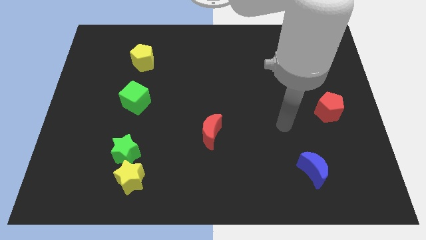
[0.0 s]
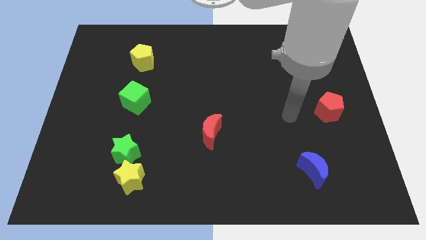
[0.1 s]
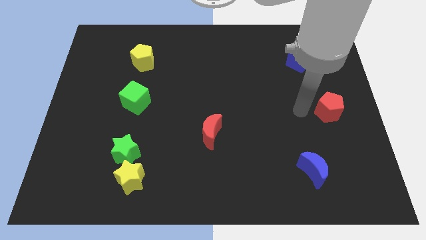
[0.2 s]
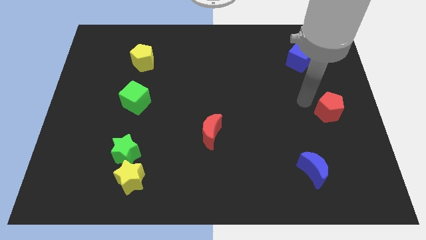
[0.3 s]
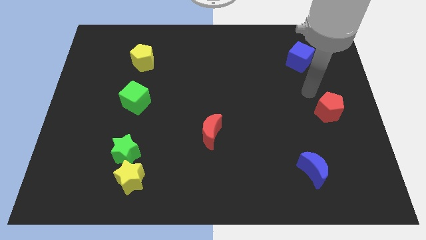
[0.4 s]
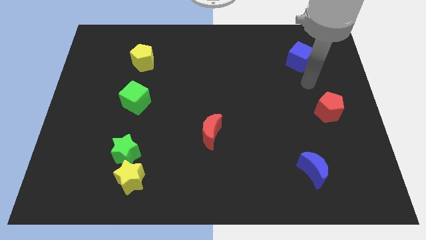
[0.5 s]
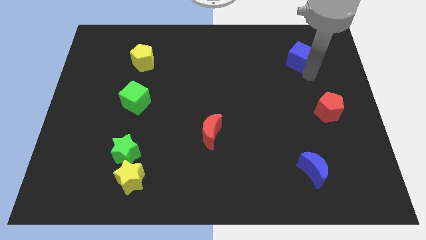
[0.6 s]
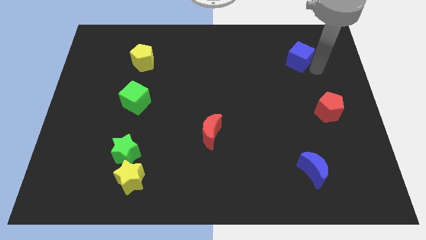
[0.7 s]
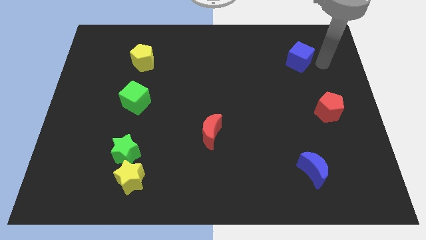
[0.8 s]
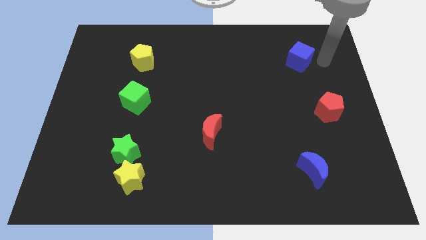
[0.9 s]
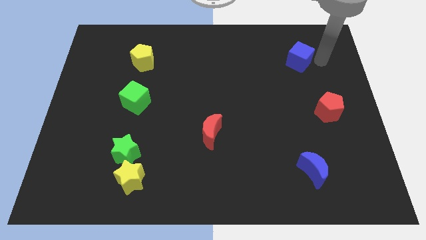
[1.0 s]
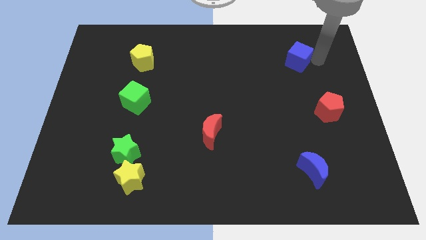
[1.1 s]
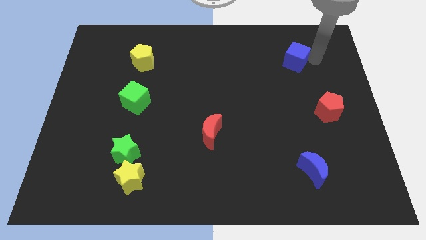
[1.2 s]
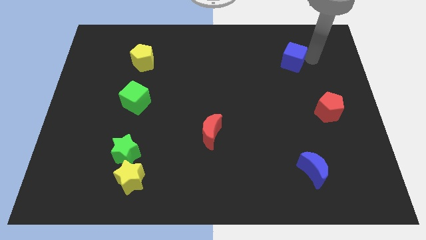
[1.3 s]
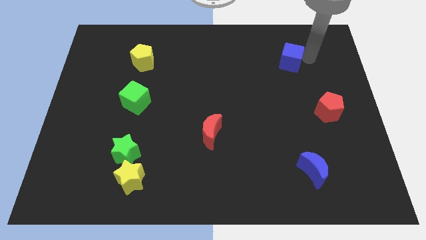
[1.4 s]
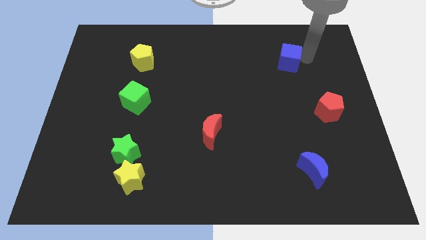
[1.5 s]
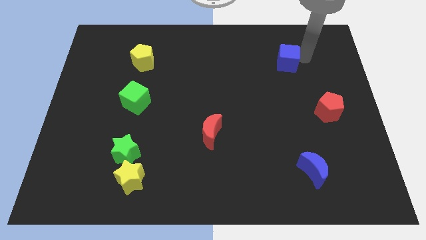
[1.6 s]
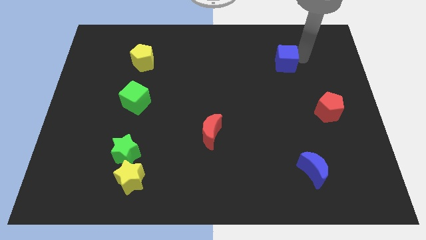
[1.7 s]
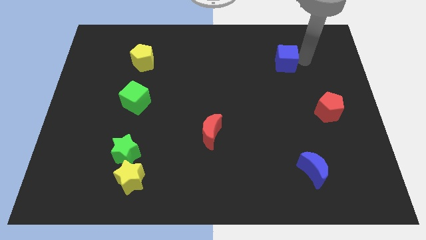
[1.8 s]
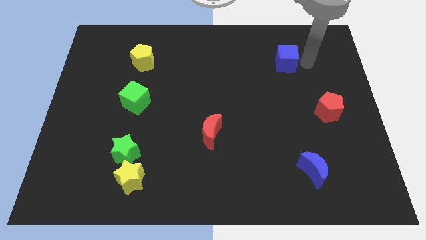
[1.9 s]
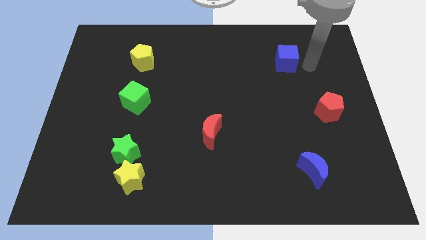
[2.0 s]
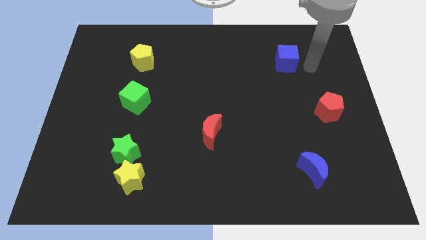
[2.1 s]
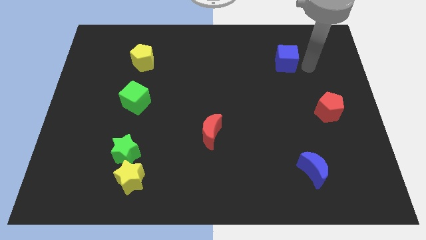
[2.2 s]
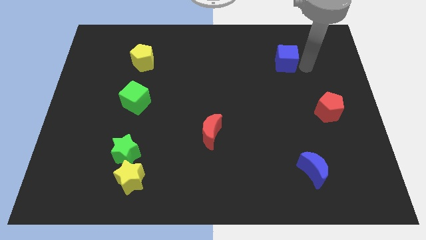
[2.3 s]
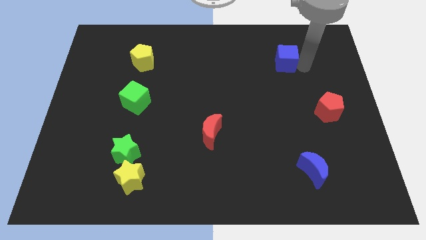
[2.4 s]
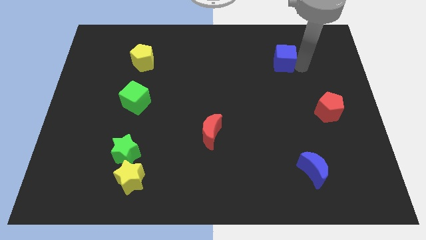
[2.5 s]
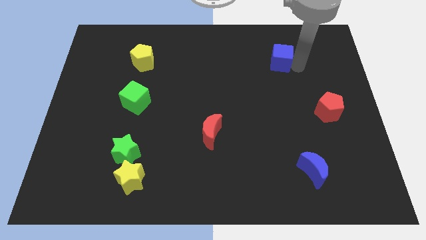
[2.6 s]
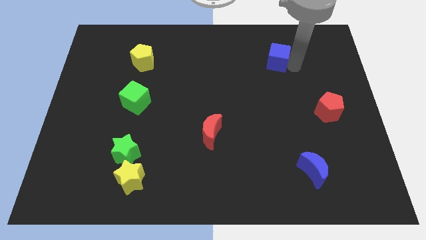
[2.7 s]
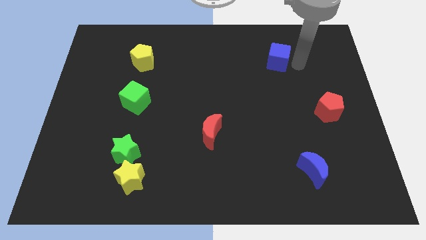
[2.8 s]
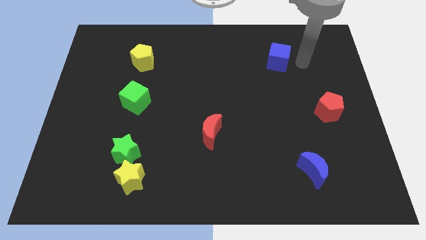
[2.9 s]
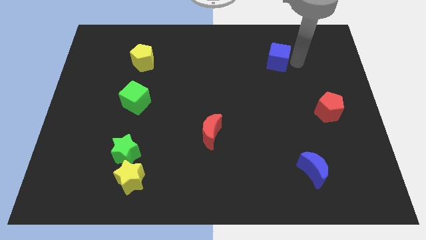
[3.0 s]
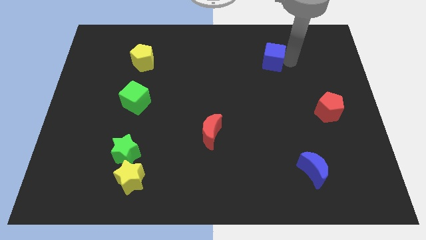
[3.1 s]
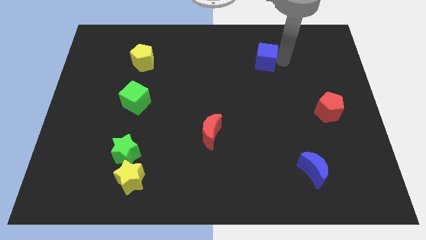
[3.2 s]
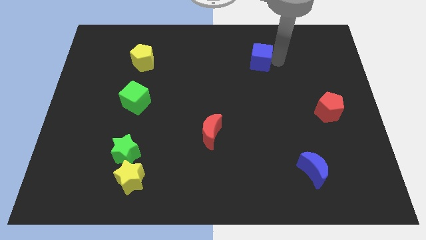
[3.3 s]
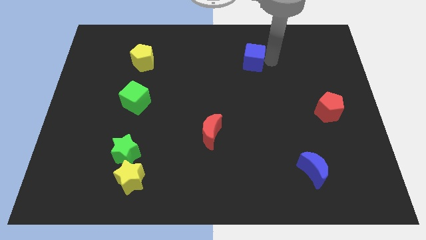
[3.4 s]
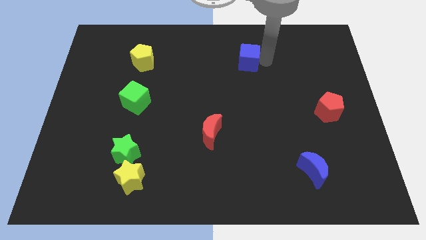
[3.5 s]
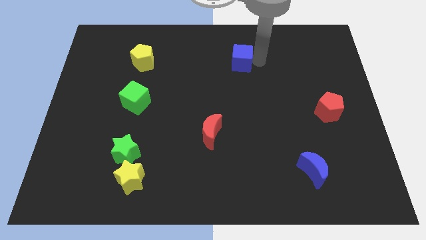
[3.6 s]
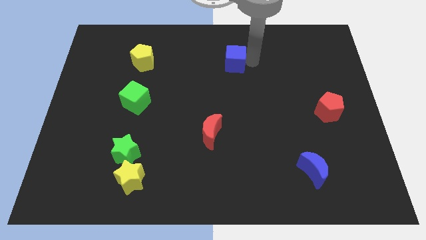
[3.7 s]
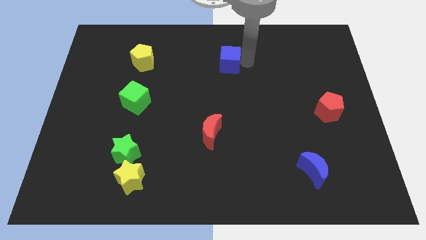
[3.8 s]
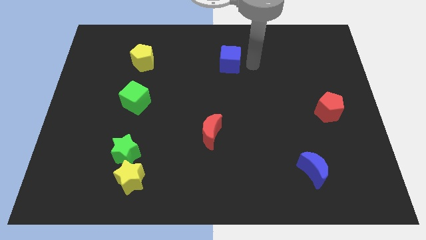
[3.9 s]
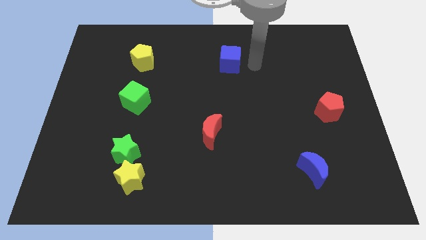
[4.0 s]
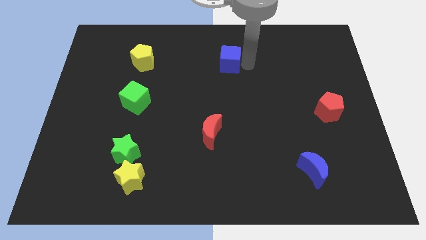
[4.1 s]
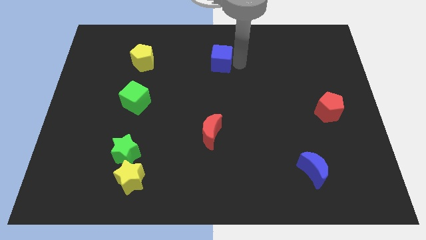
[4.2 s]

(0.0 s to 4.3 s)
slide the blue cube left

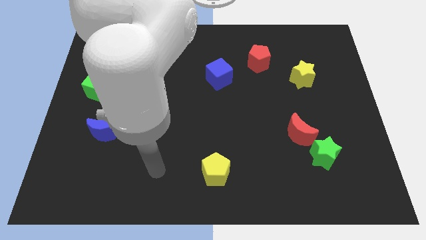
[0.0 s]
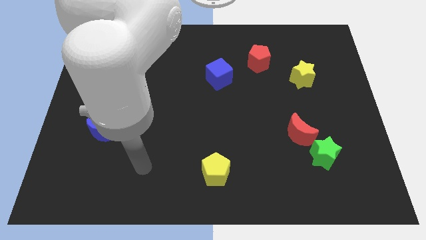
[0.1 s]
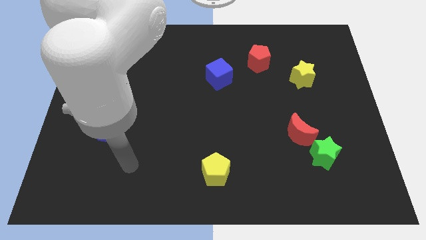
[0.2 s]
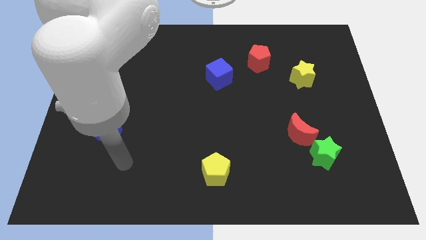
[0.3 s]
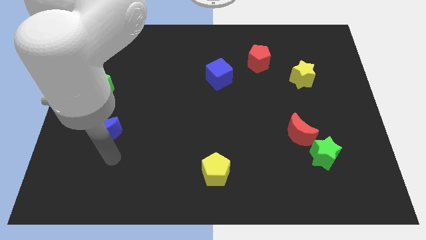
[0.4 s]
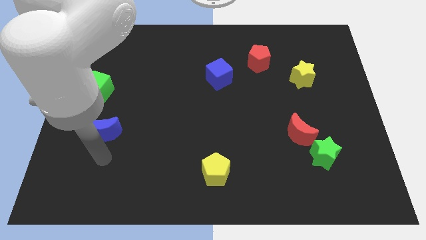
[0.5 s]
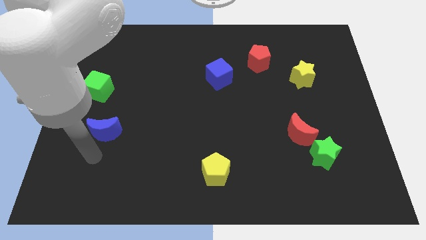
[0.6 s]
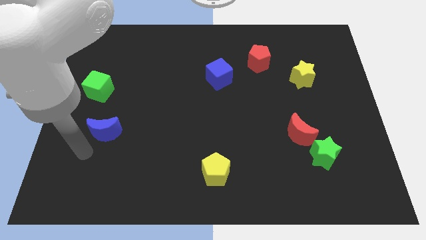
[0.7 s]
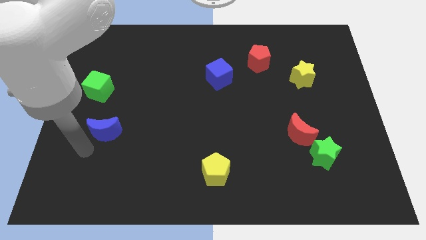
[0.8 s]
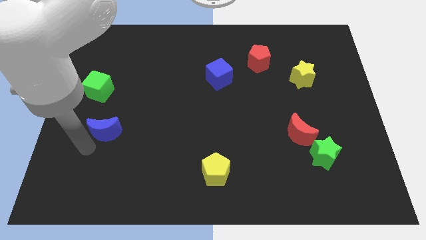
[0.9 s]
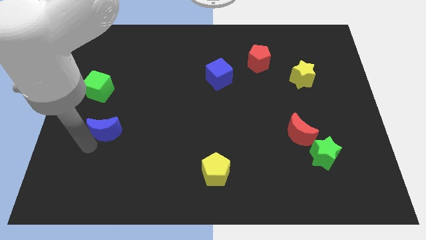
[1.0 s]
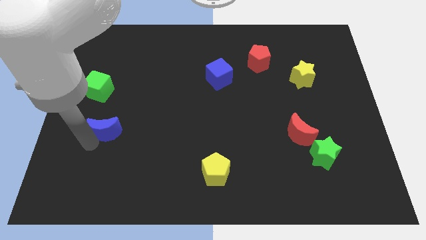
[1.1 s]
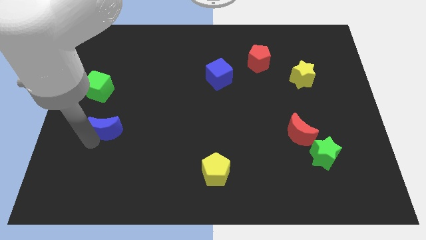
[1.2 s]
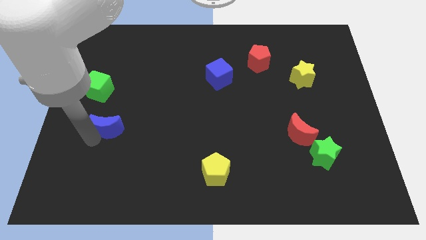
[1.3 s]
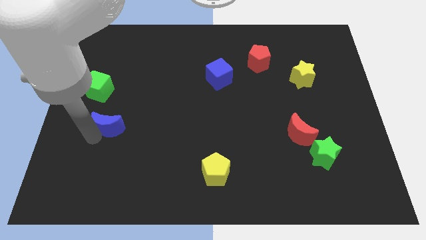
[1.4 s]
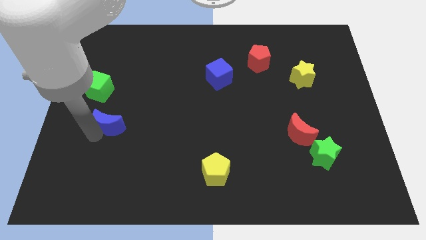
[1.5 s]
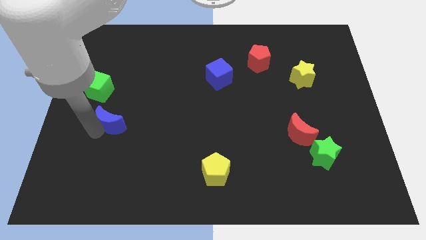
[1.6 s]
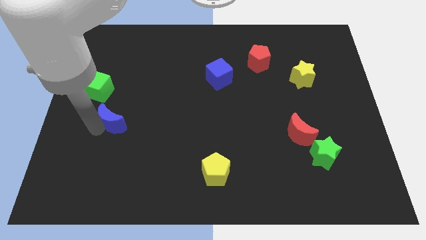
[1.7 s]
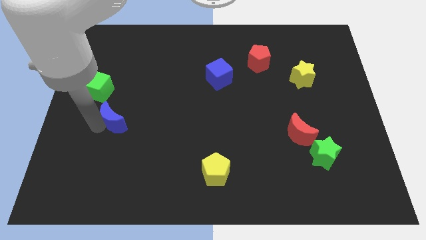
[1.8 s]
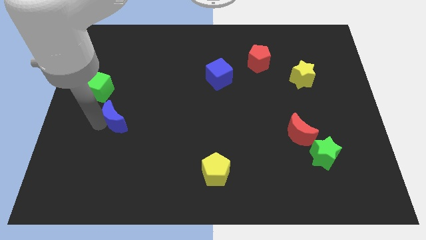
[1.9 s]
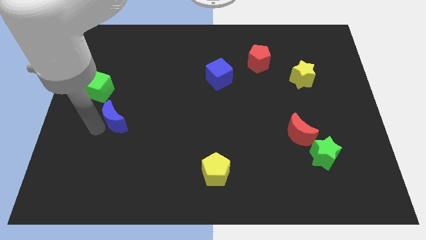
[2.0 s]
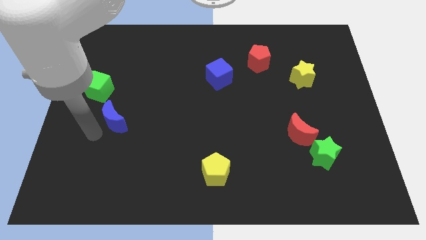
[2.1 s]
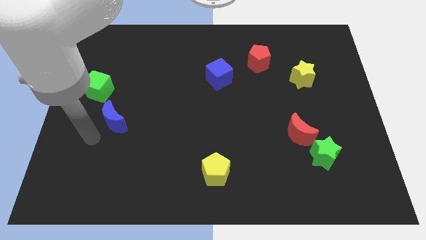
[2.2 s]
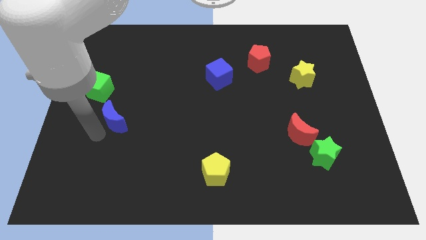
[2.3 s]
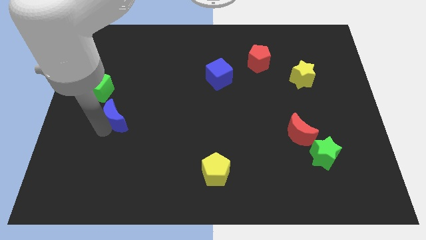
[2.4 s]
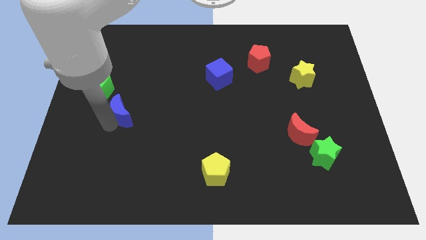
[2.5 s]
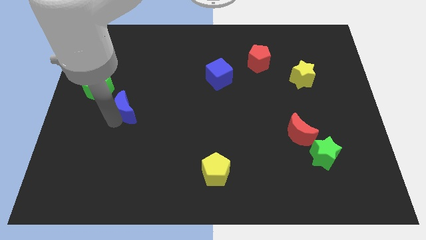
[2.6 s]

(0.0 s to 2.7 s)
push the blue moon upwards and to the right a bit

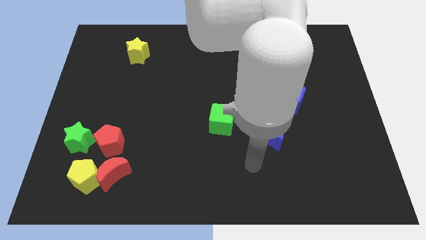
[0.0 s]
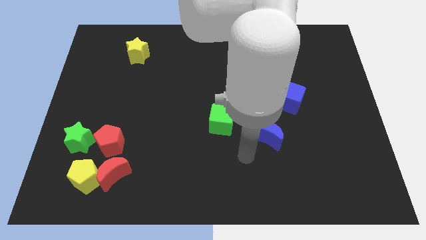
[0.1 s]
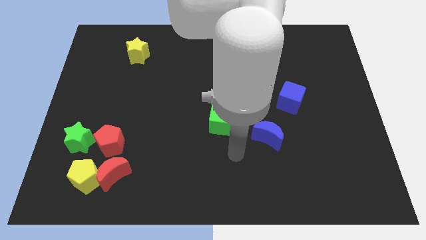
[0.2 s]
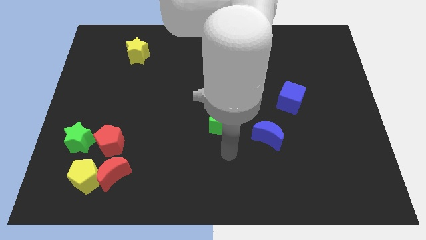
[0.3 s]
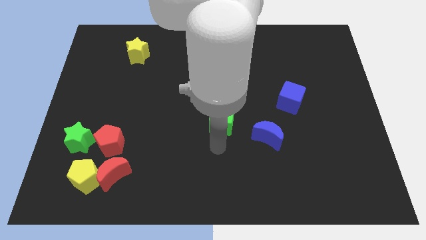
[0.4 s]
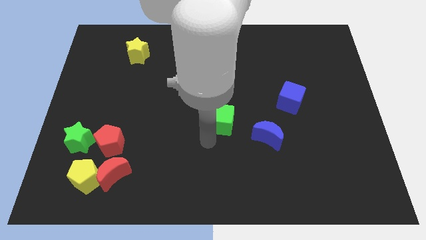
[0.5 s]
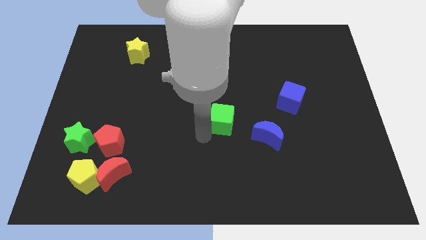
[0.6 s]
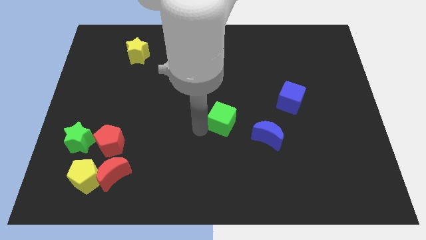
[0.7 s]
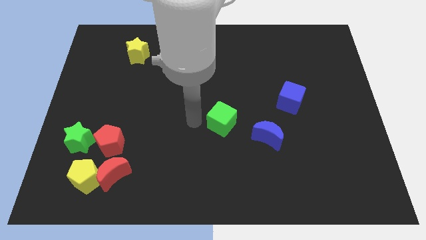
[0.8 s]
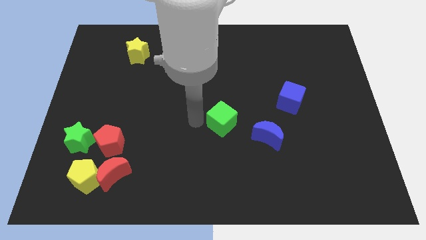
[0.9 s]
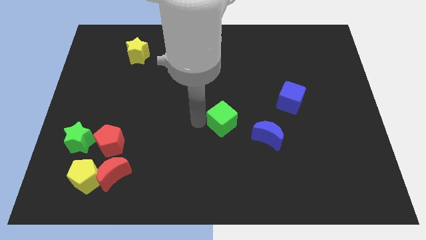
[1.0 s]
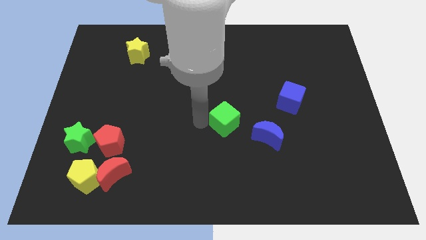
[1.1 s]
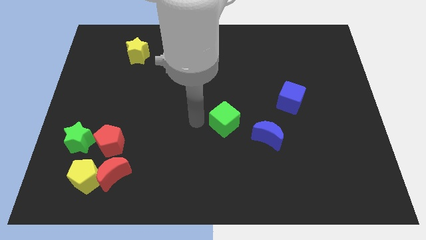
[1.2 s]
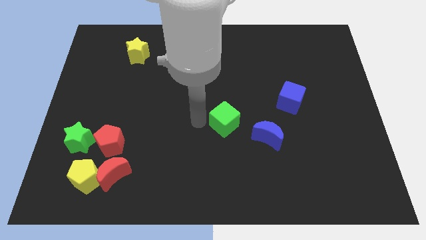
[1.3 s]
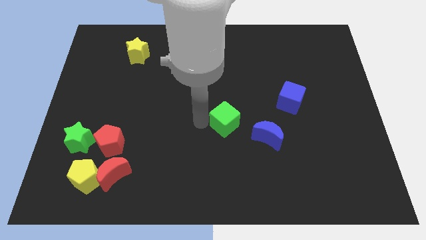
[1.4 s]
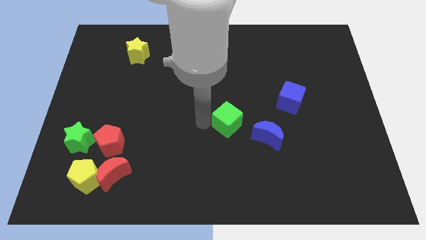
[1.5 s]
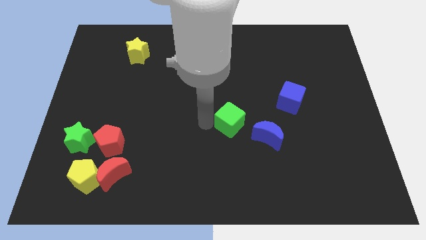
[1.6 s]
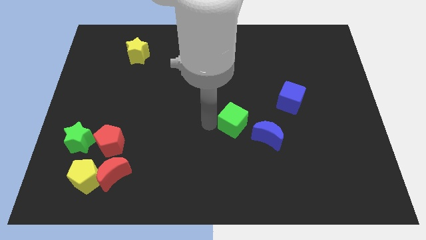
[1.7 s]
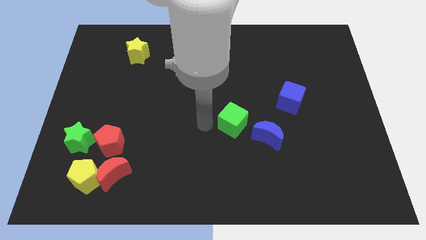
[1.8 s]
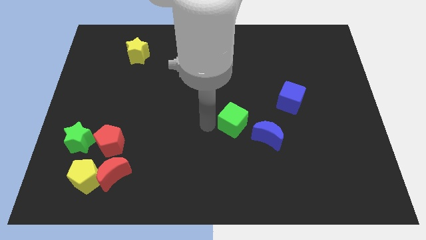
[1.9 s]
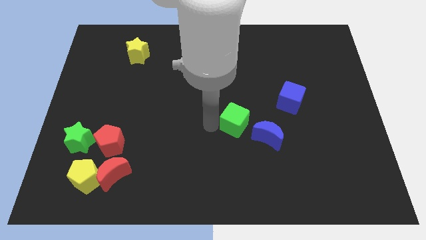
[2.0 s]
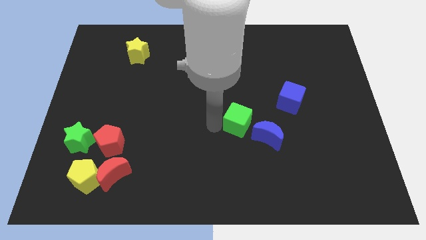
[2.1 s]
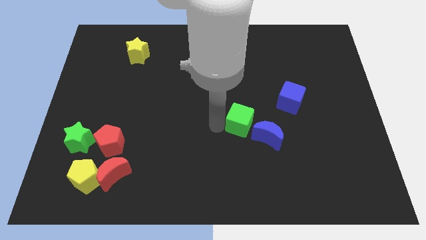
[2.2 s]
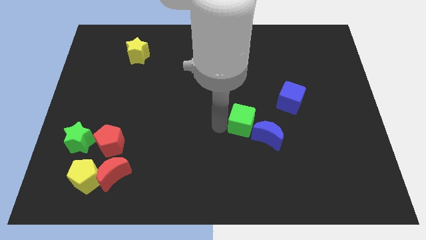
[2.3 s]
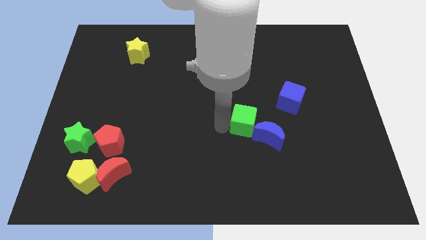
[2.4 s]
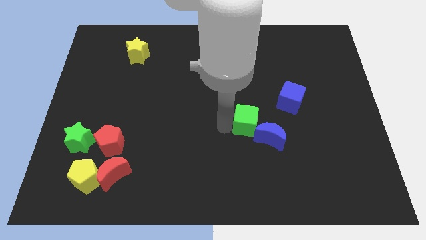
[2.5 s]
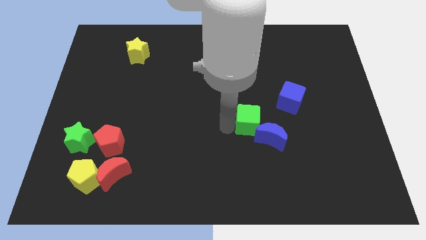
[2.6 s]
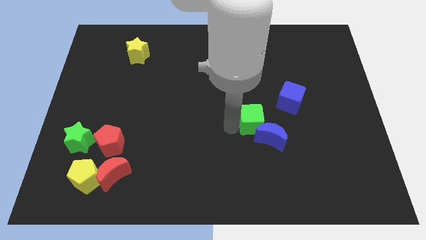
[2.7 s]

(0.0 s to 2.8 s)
slightly slide the green cube right
